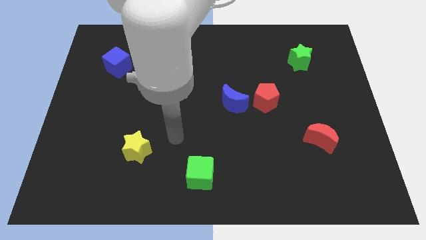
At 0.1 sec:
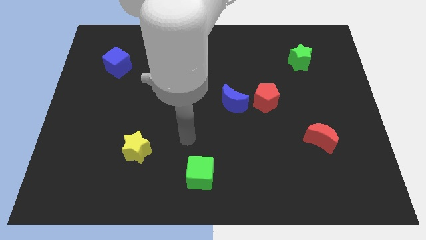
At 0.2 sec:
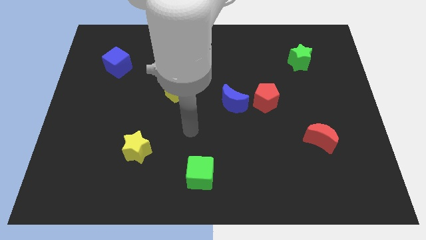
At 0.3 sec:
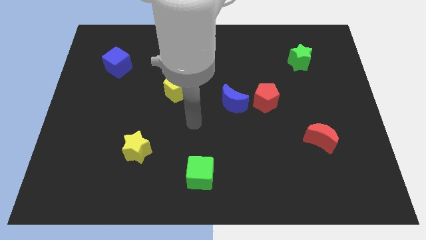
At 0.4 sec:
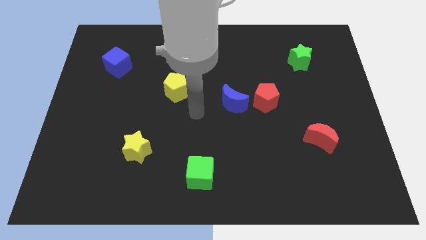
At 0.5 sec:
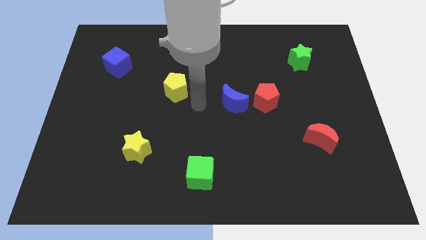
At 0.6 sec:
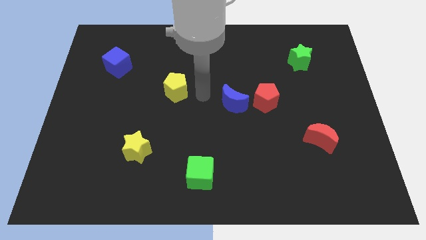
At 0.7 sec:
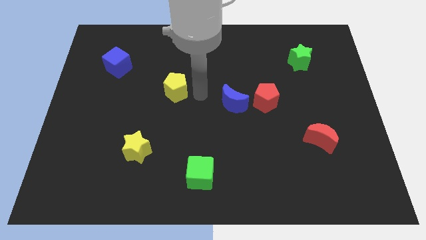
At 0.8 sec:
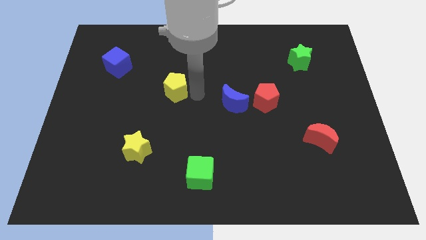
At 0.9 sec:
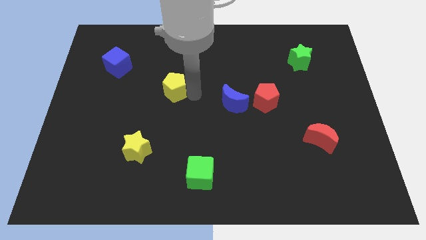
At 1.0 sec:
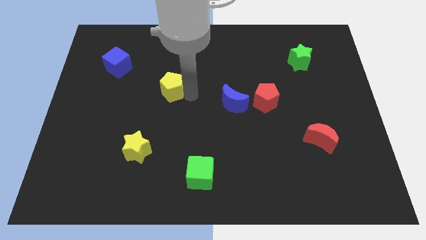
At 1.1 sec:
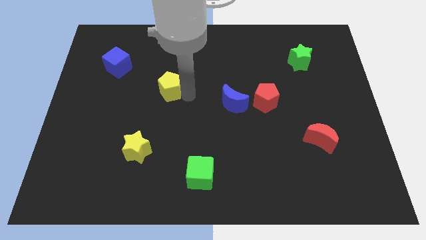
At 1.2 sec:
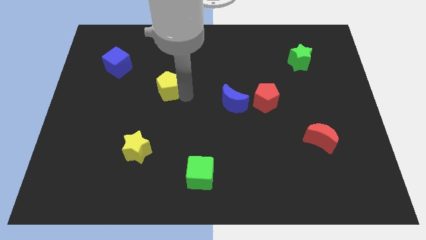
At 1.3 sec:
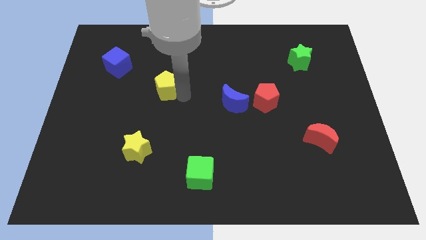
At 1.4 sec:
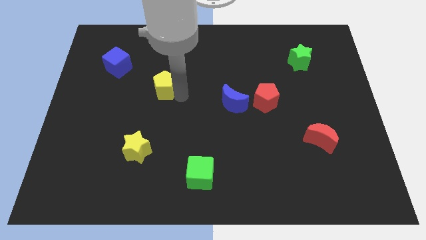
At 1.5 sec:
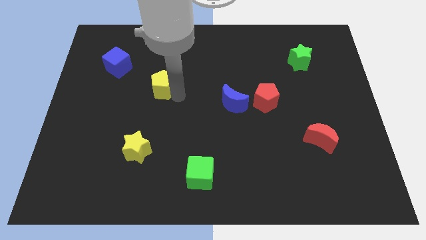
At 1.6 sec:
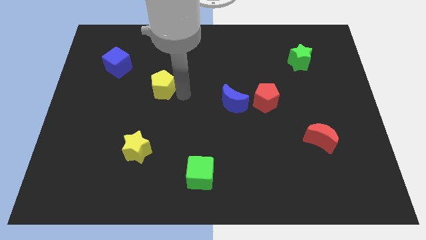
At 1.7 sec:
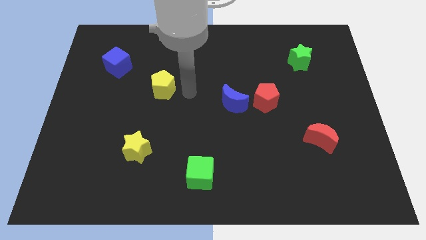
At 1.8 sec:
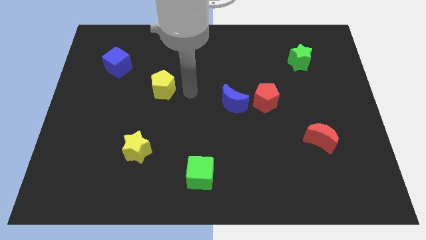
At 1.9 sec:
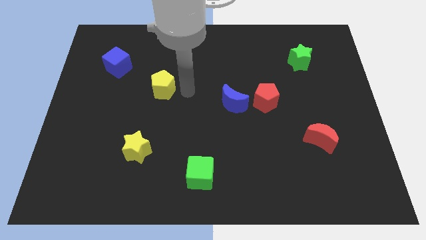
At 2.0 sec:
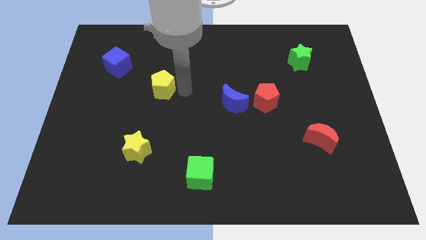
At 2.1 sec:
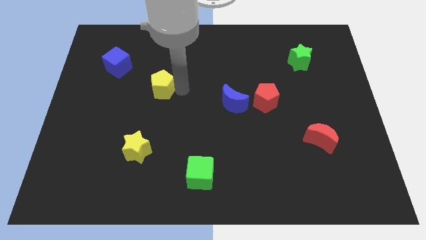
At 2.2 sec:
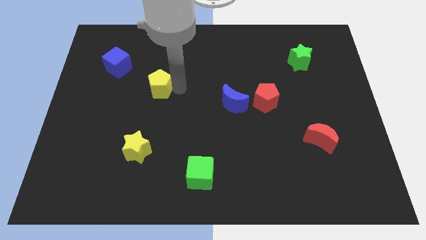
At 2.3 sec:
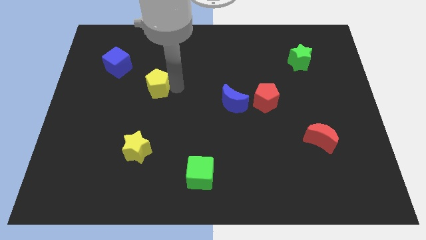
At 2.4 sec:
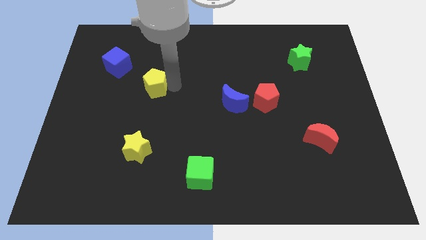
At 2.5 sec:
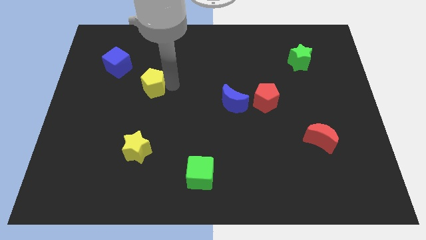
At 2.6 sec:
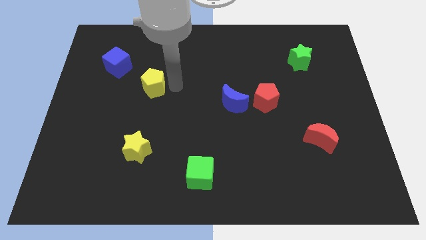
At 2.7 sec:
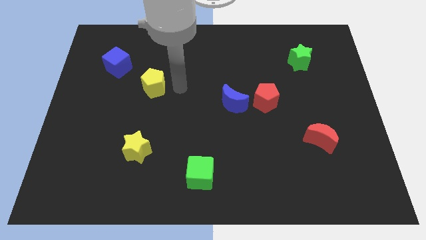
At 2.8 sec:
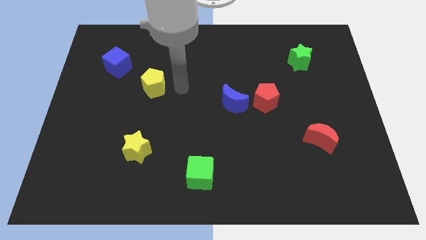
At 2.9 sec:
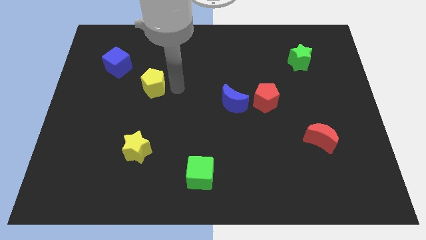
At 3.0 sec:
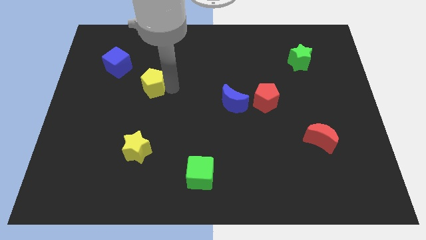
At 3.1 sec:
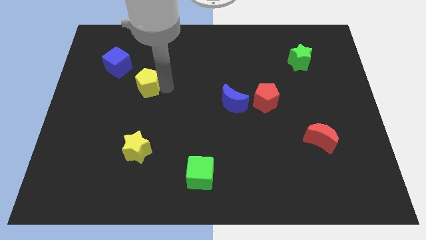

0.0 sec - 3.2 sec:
slightly move the yellow pentagon to the left

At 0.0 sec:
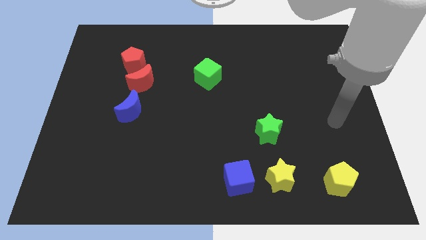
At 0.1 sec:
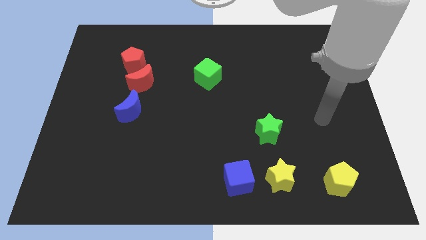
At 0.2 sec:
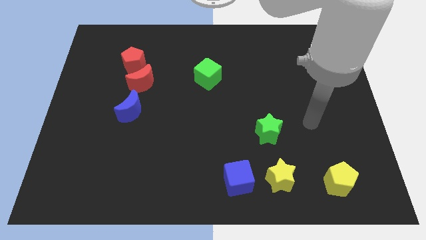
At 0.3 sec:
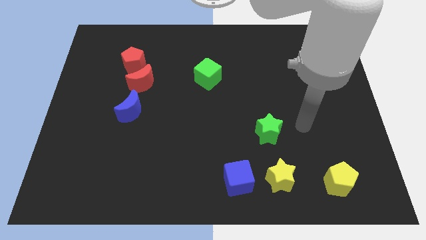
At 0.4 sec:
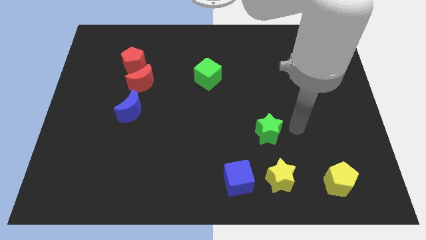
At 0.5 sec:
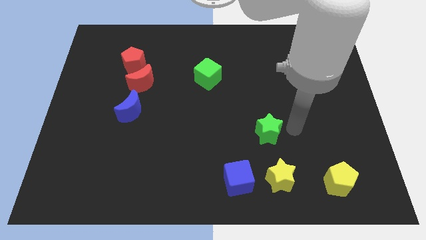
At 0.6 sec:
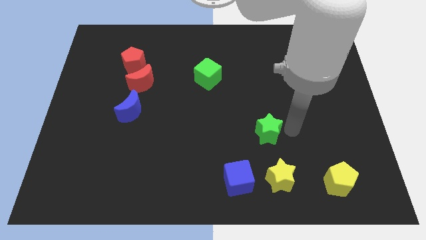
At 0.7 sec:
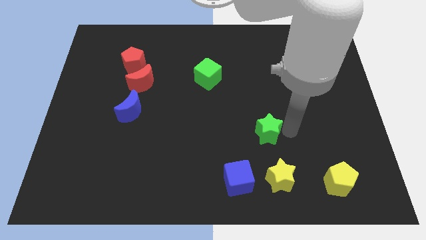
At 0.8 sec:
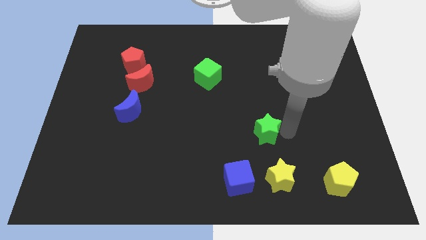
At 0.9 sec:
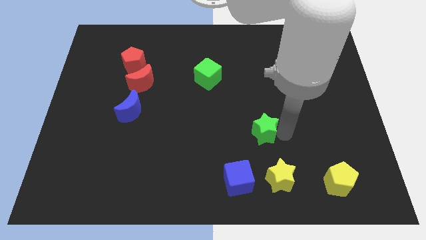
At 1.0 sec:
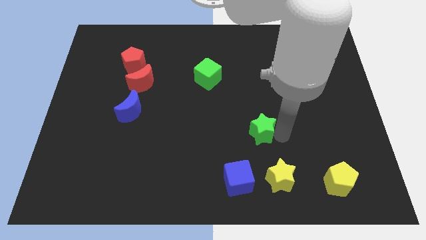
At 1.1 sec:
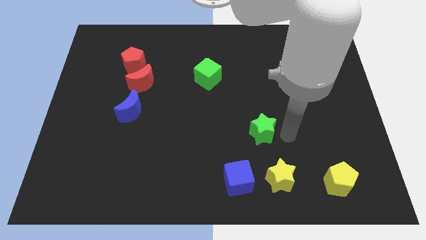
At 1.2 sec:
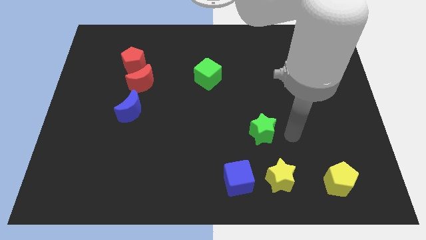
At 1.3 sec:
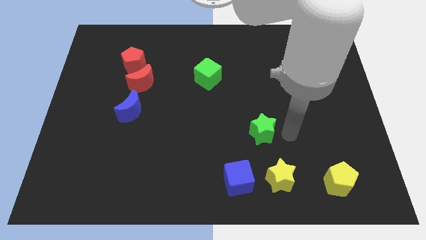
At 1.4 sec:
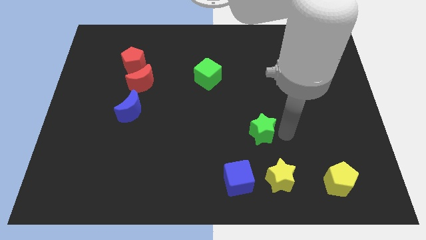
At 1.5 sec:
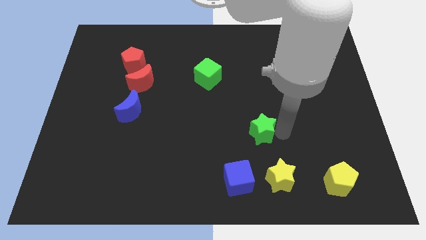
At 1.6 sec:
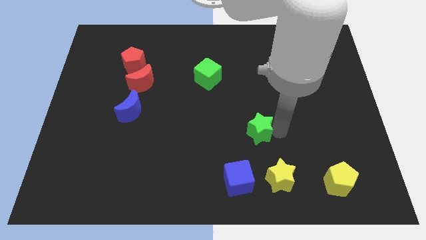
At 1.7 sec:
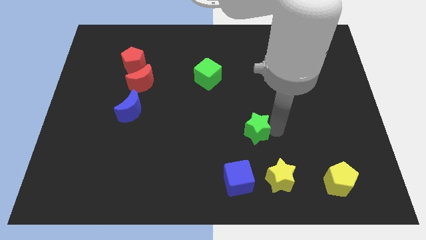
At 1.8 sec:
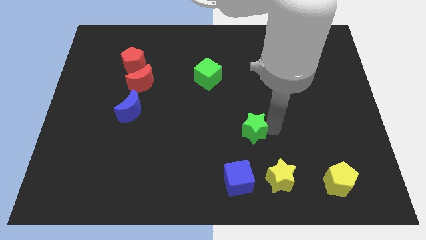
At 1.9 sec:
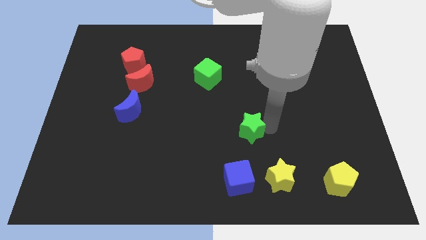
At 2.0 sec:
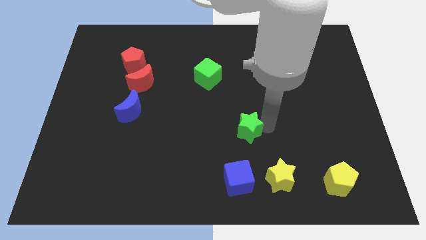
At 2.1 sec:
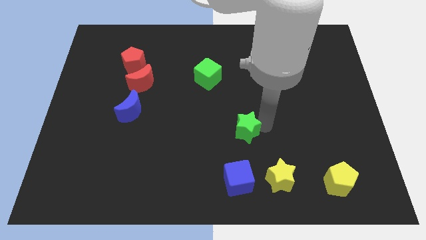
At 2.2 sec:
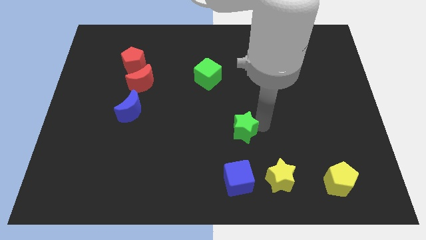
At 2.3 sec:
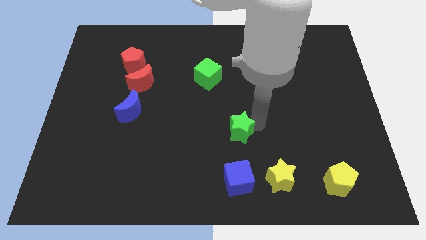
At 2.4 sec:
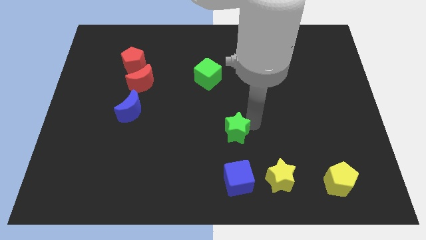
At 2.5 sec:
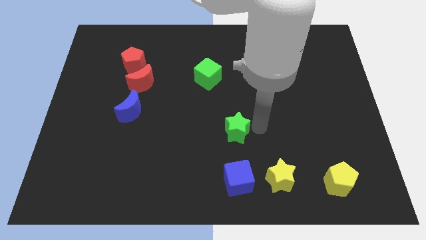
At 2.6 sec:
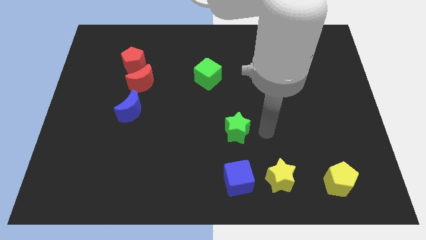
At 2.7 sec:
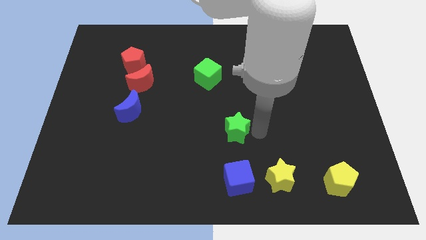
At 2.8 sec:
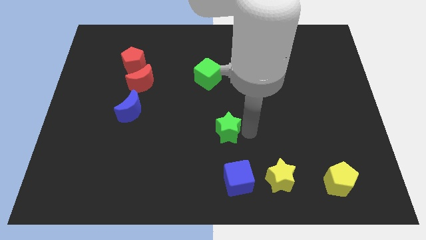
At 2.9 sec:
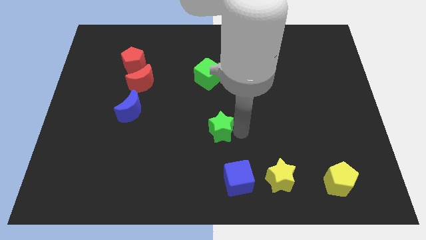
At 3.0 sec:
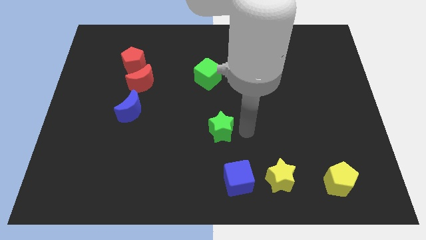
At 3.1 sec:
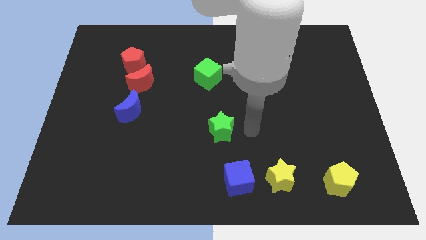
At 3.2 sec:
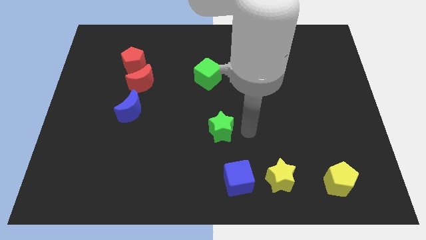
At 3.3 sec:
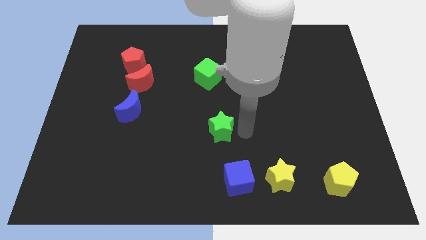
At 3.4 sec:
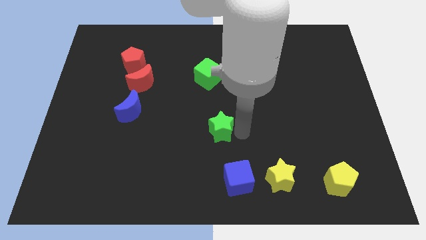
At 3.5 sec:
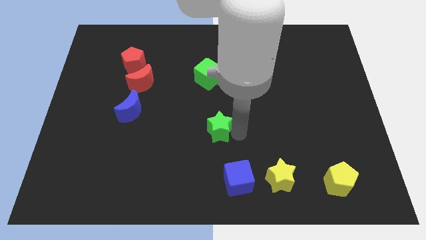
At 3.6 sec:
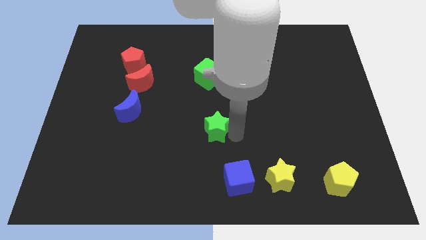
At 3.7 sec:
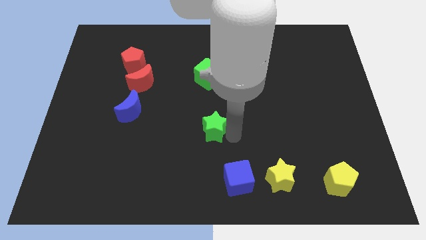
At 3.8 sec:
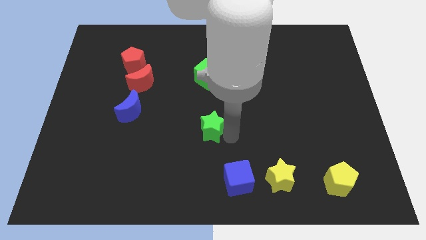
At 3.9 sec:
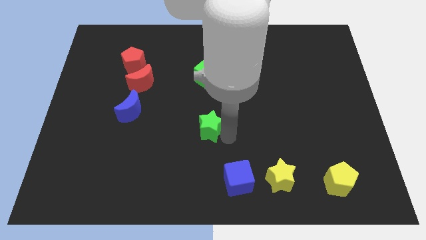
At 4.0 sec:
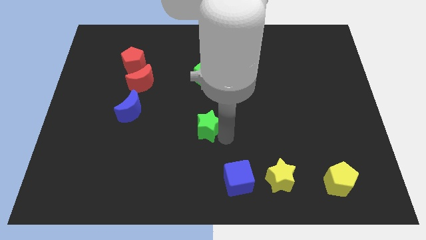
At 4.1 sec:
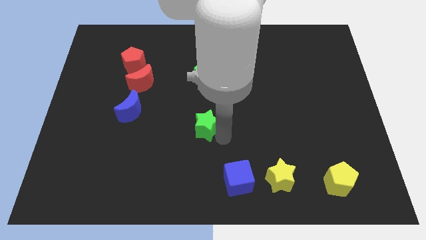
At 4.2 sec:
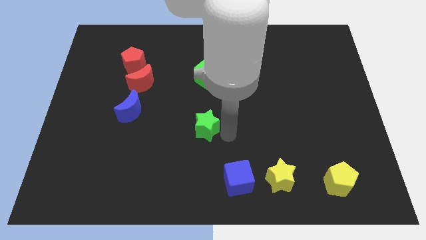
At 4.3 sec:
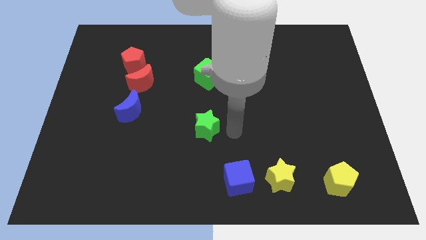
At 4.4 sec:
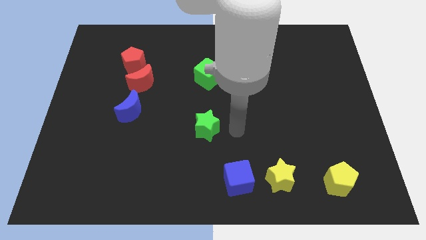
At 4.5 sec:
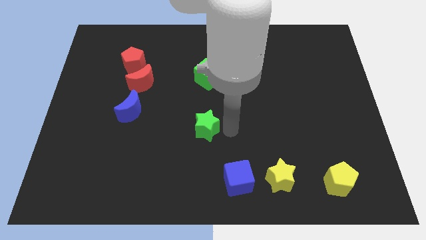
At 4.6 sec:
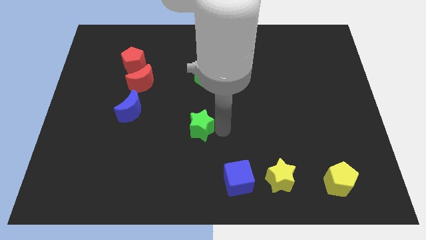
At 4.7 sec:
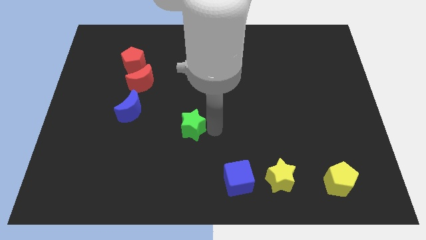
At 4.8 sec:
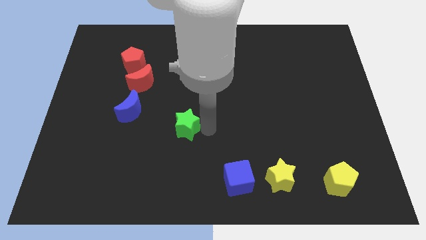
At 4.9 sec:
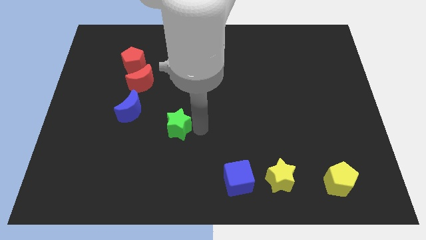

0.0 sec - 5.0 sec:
move the green star to the left

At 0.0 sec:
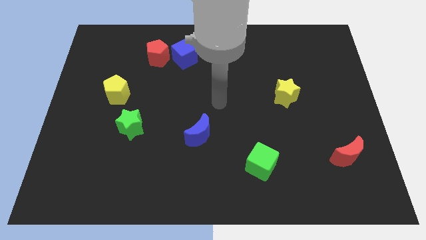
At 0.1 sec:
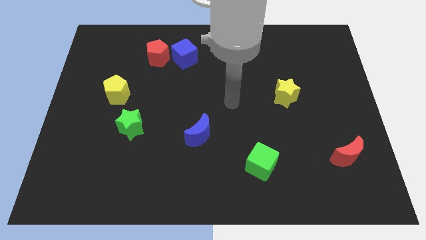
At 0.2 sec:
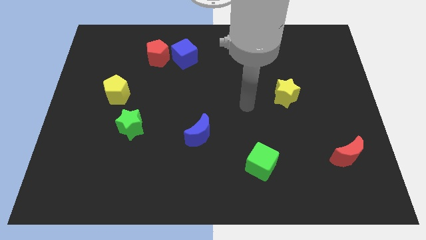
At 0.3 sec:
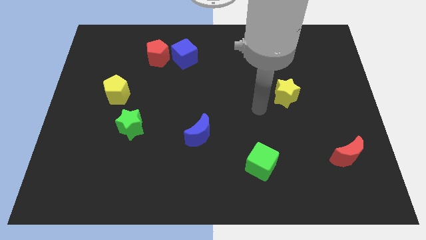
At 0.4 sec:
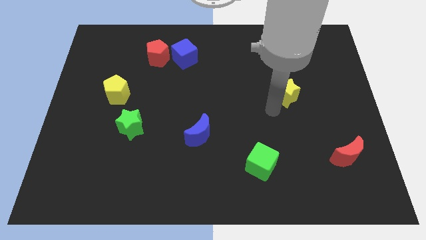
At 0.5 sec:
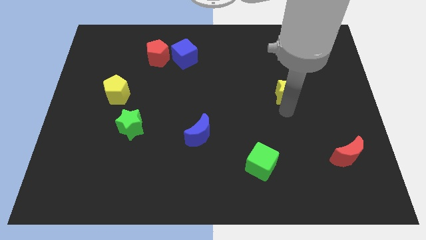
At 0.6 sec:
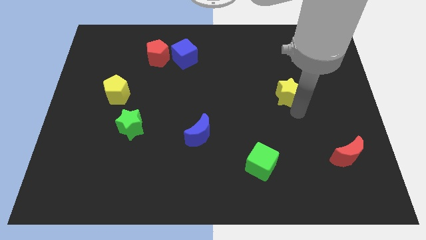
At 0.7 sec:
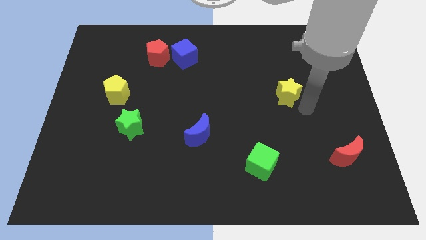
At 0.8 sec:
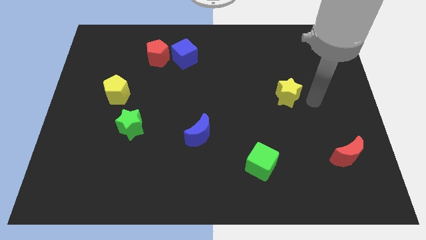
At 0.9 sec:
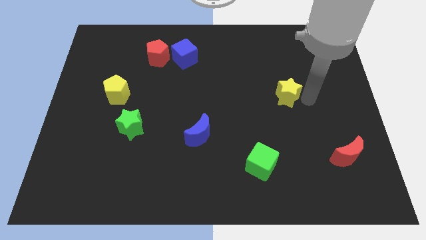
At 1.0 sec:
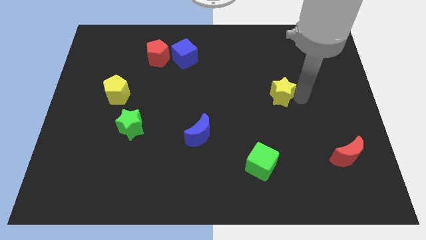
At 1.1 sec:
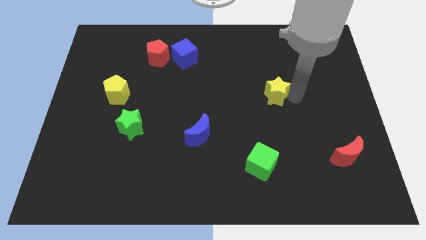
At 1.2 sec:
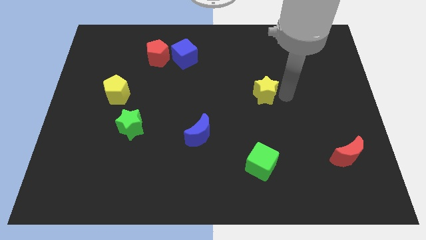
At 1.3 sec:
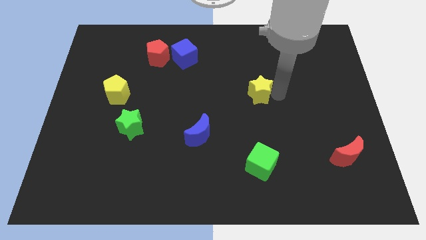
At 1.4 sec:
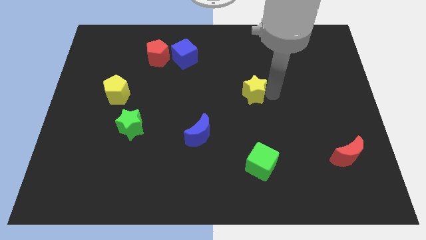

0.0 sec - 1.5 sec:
slightly move the yellow star to the left
